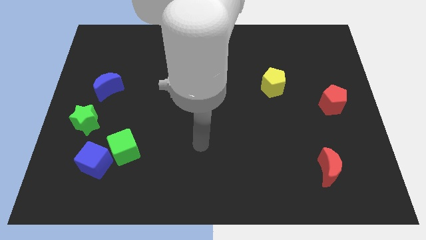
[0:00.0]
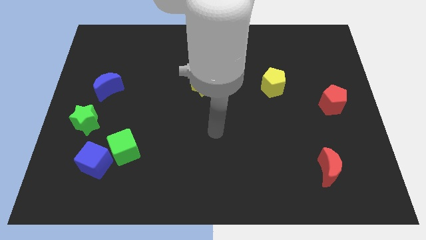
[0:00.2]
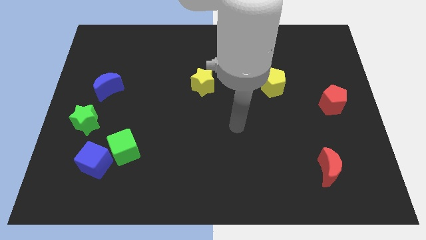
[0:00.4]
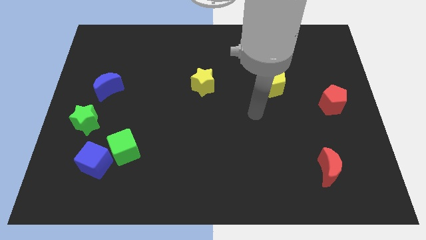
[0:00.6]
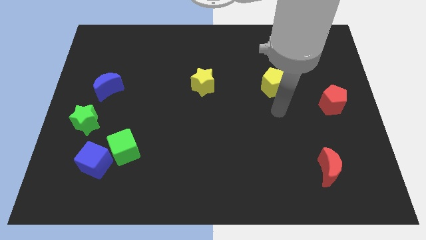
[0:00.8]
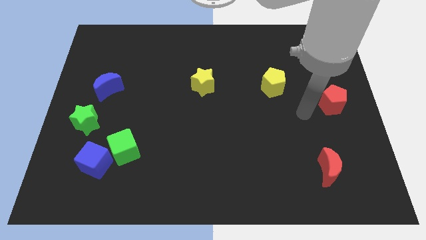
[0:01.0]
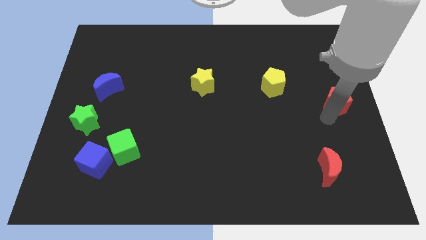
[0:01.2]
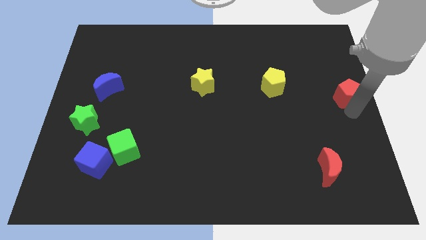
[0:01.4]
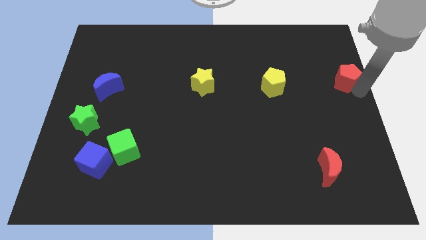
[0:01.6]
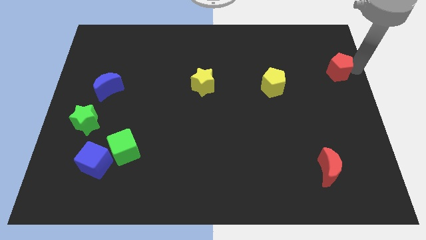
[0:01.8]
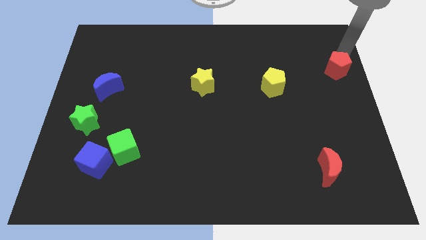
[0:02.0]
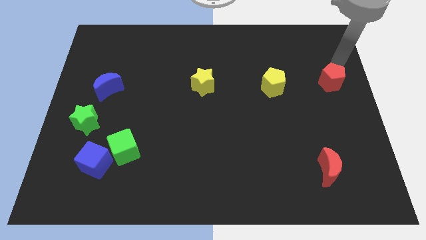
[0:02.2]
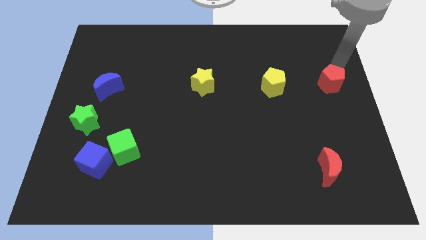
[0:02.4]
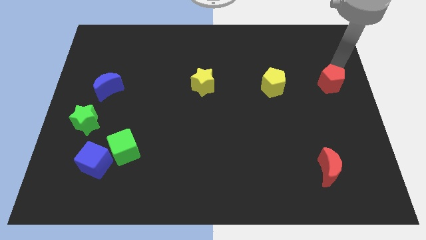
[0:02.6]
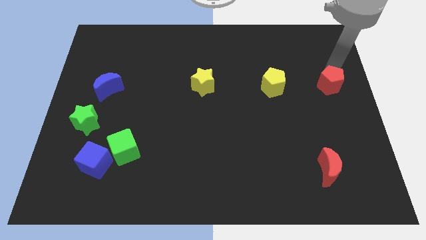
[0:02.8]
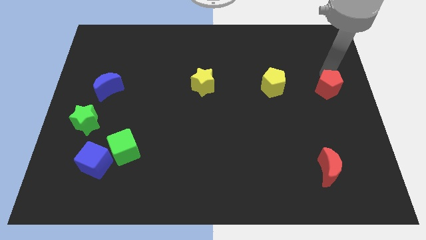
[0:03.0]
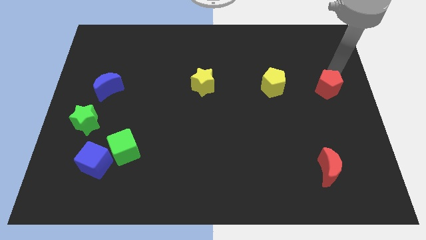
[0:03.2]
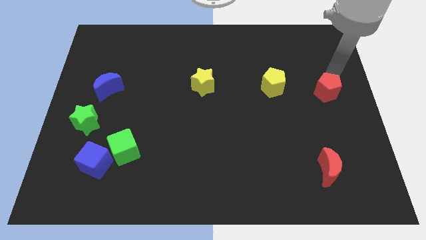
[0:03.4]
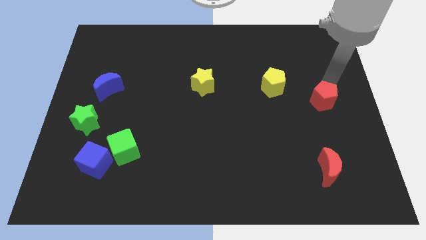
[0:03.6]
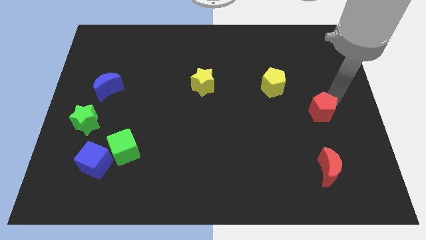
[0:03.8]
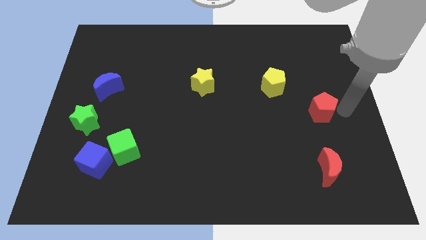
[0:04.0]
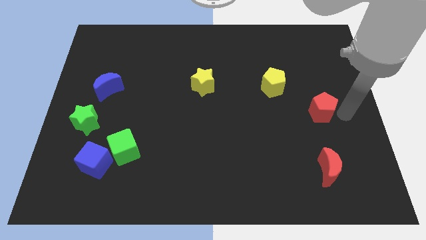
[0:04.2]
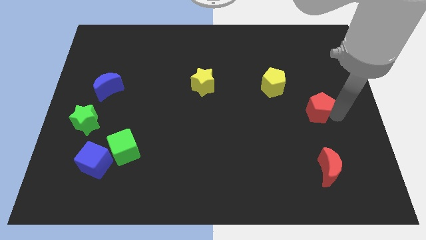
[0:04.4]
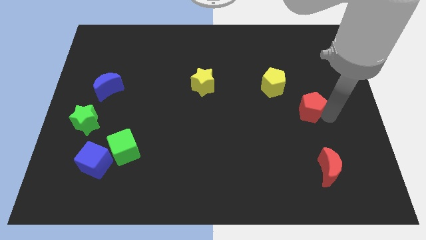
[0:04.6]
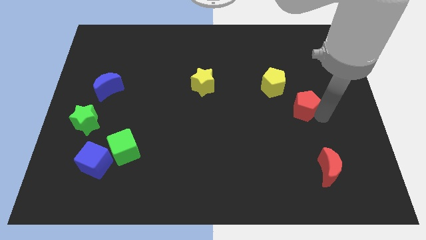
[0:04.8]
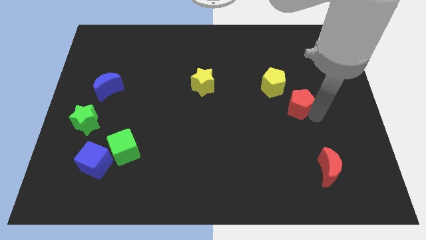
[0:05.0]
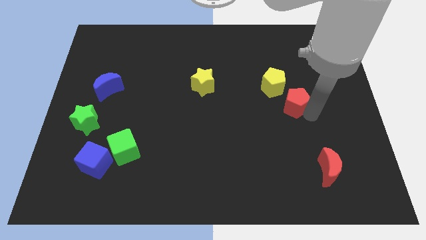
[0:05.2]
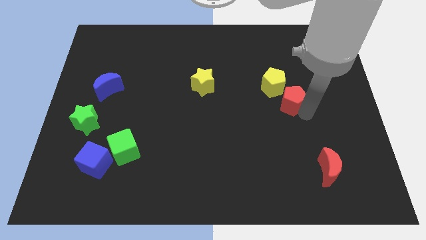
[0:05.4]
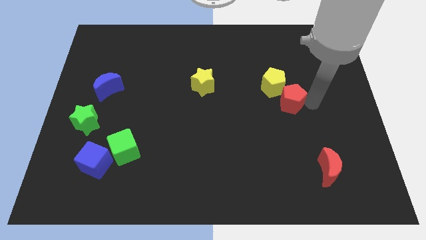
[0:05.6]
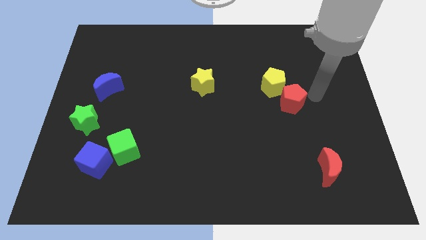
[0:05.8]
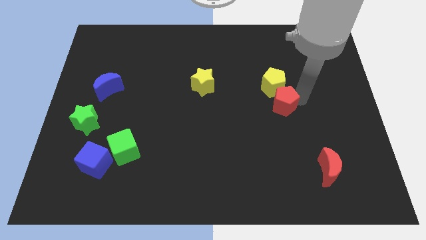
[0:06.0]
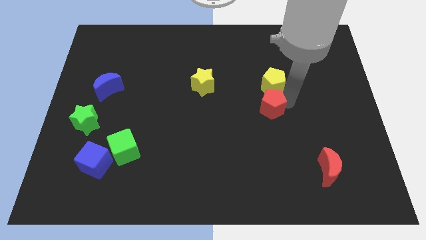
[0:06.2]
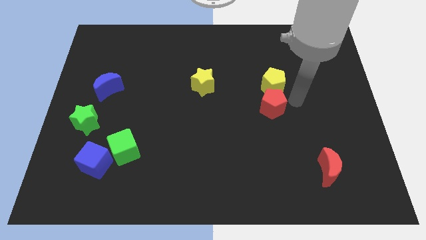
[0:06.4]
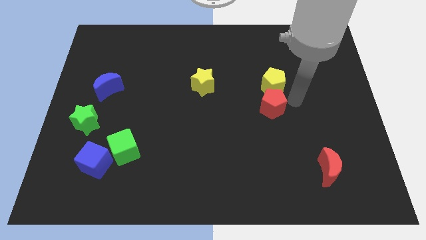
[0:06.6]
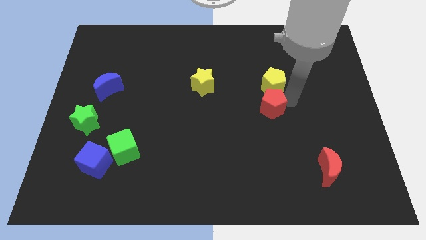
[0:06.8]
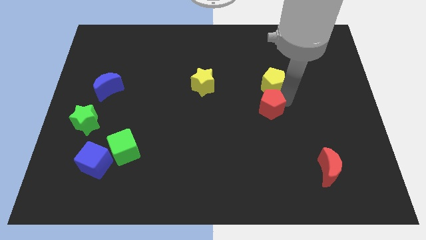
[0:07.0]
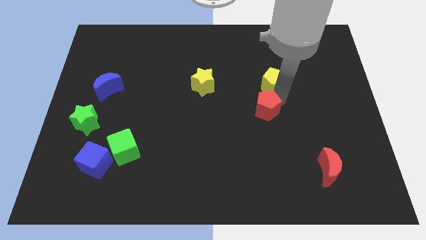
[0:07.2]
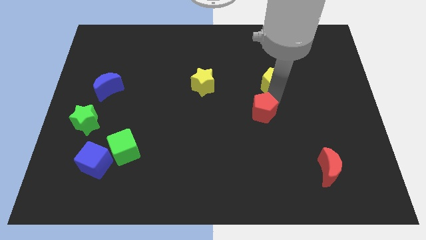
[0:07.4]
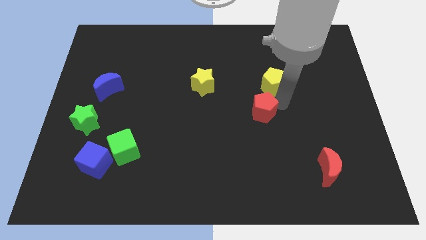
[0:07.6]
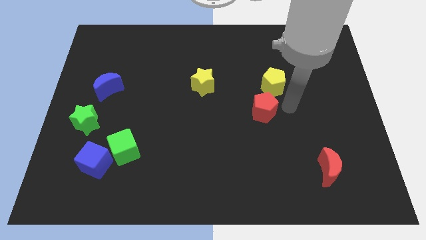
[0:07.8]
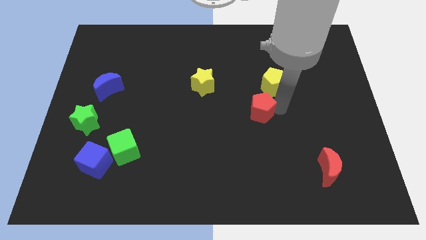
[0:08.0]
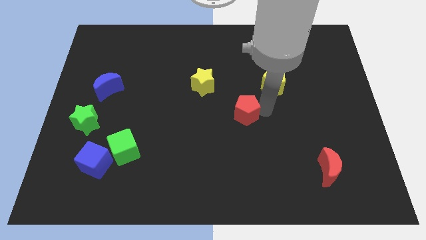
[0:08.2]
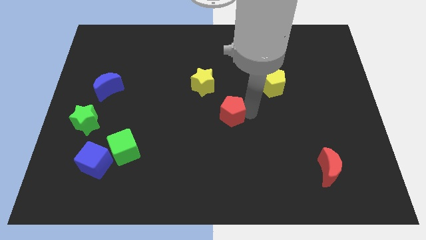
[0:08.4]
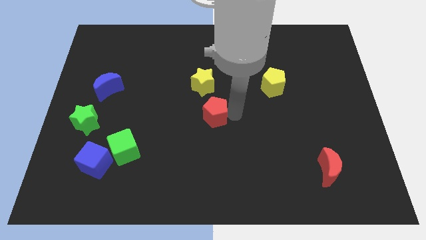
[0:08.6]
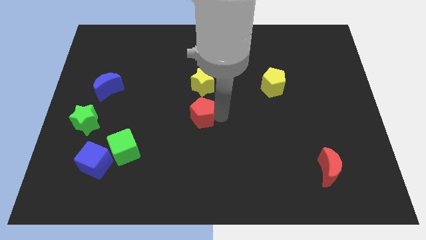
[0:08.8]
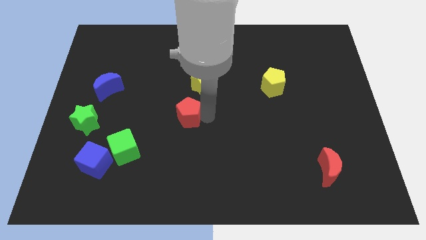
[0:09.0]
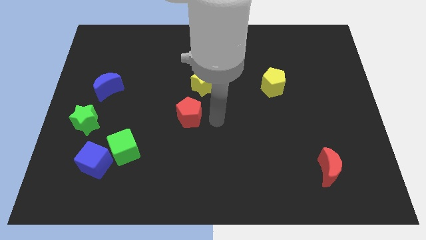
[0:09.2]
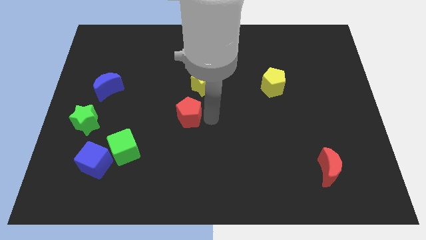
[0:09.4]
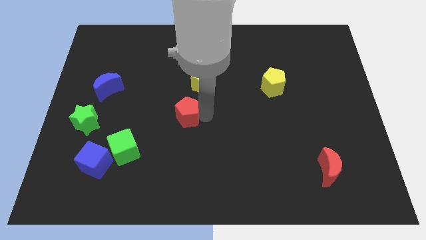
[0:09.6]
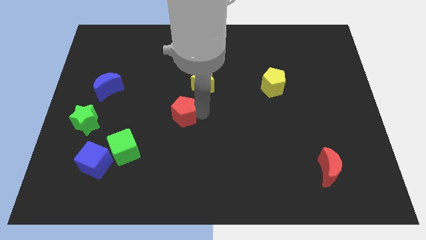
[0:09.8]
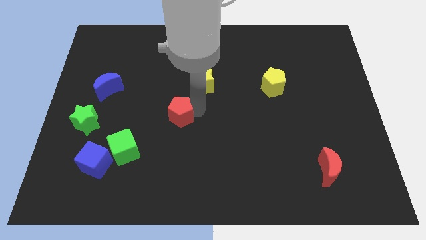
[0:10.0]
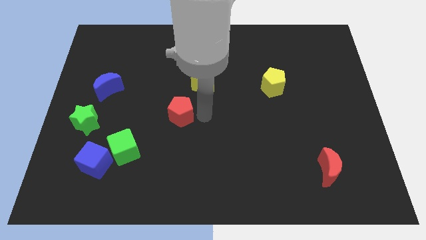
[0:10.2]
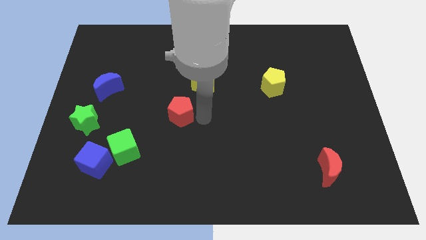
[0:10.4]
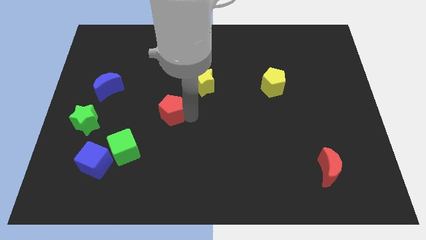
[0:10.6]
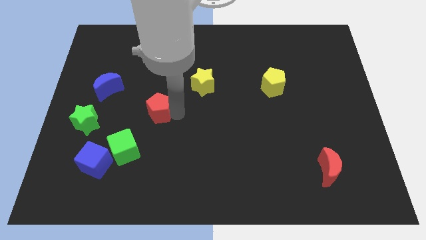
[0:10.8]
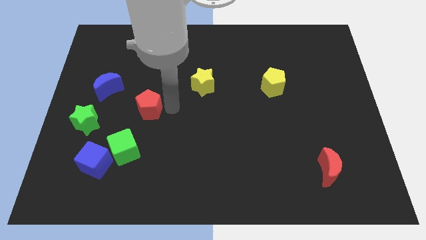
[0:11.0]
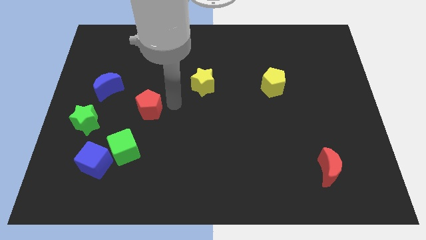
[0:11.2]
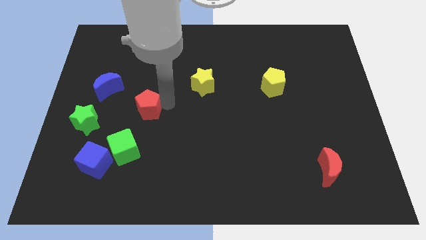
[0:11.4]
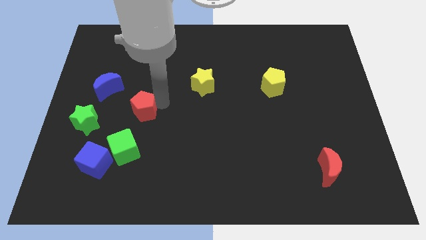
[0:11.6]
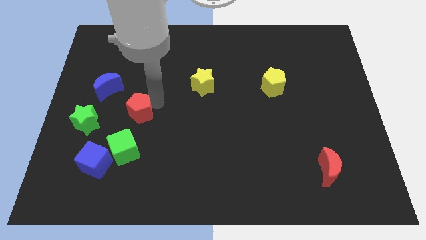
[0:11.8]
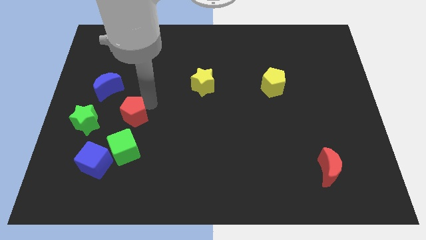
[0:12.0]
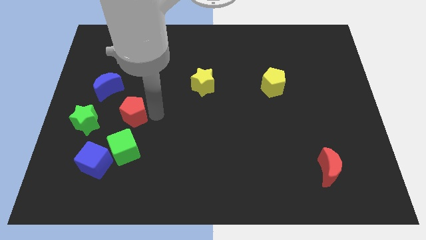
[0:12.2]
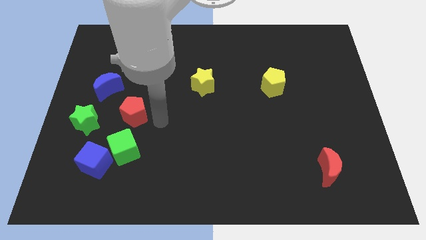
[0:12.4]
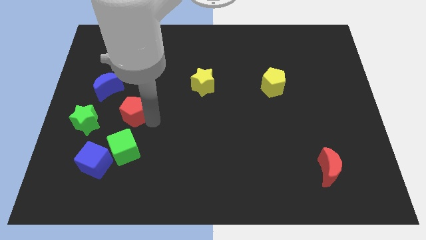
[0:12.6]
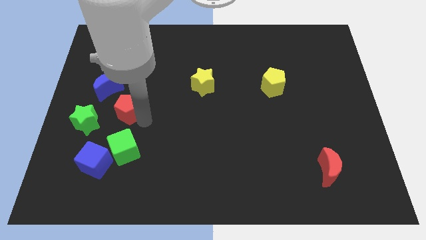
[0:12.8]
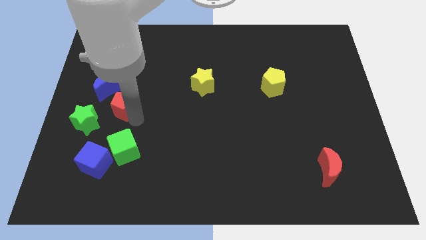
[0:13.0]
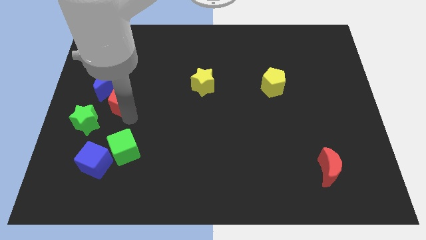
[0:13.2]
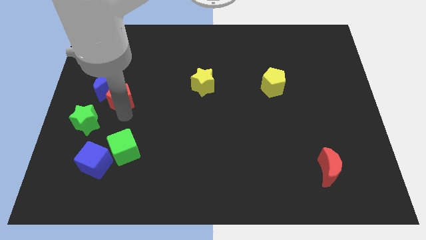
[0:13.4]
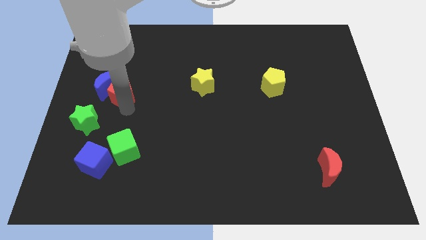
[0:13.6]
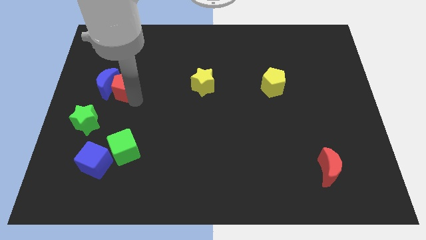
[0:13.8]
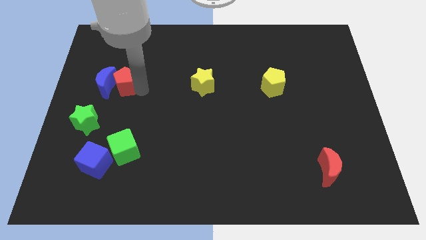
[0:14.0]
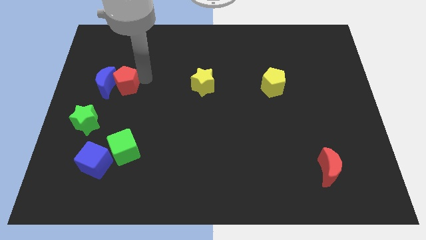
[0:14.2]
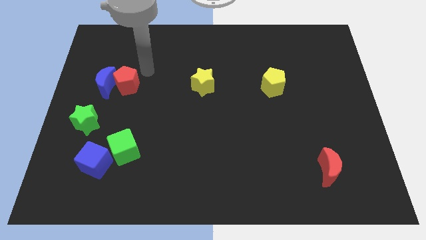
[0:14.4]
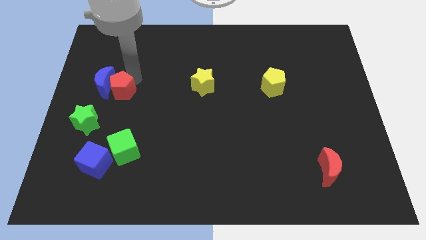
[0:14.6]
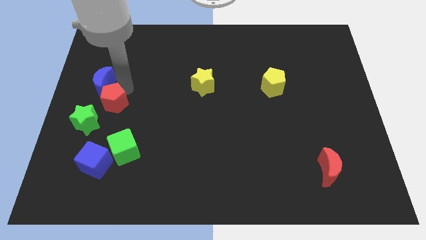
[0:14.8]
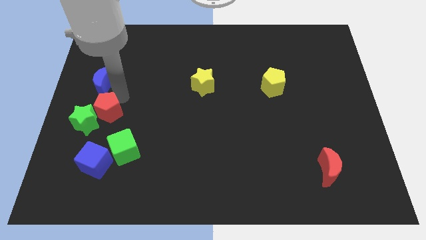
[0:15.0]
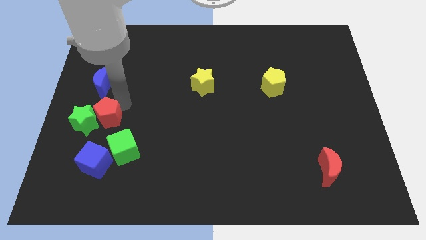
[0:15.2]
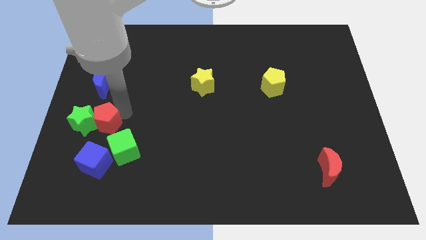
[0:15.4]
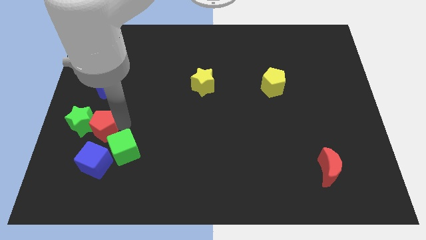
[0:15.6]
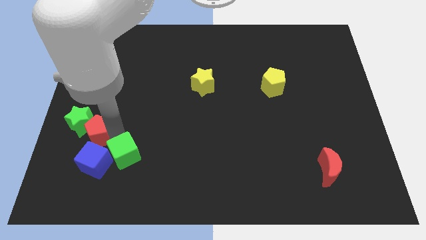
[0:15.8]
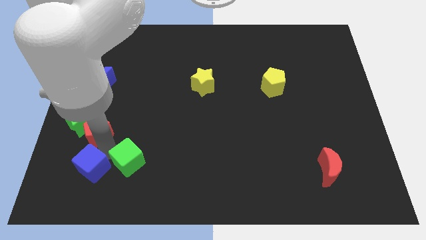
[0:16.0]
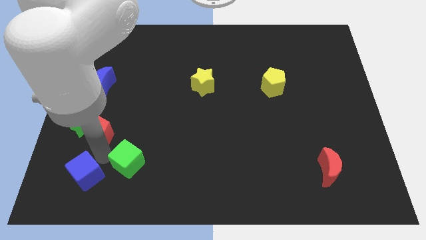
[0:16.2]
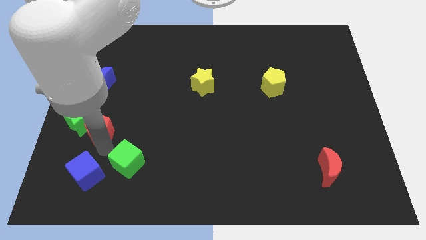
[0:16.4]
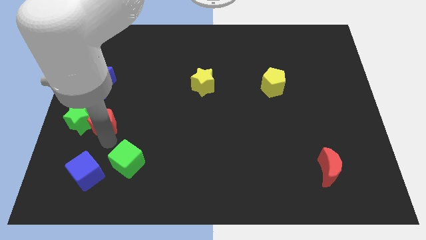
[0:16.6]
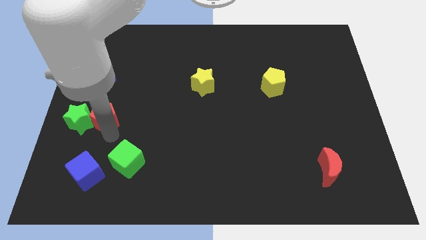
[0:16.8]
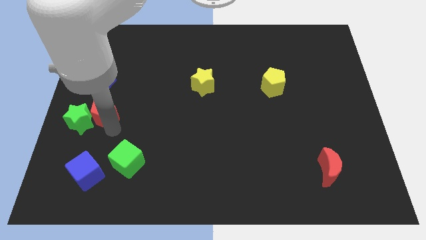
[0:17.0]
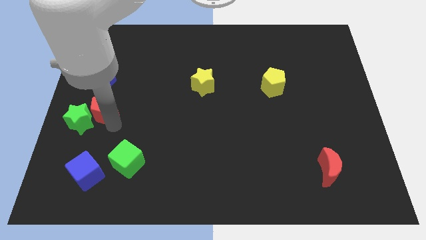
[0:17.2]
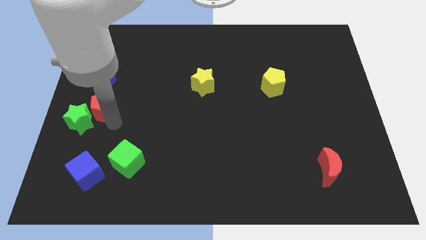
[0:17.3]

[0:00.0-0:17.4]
put the red pentagon to the center left
